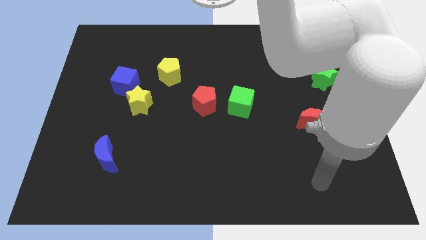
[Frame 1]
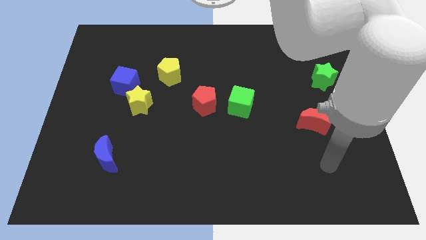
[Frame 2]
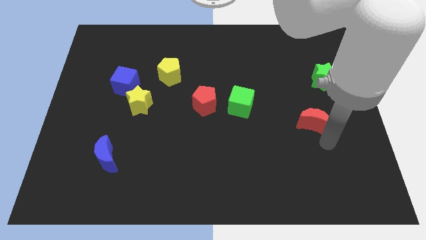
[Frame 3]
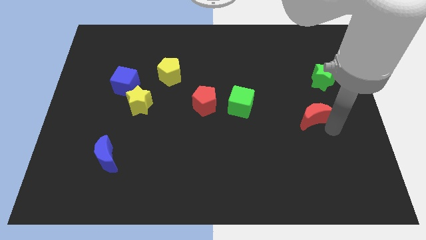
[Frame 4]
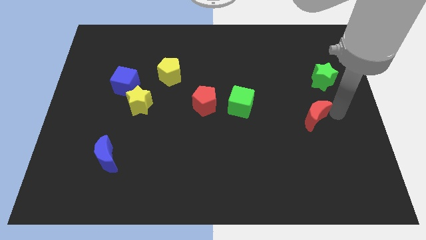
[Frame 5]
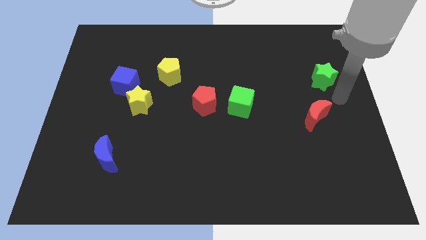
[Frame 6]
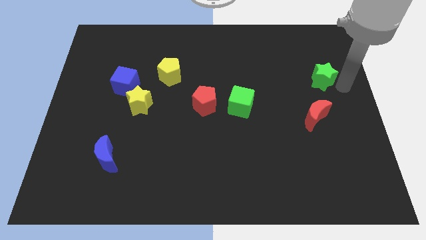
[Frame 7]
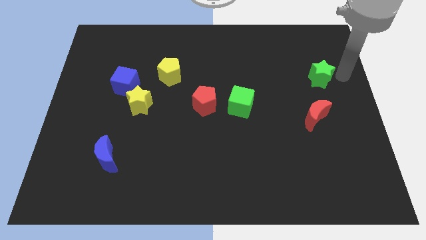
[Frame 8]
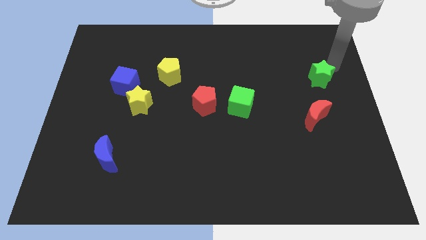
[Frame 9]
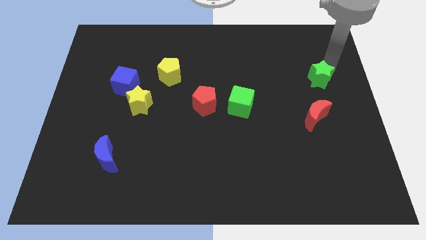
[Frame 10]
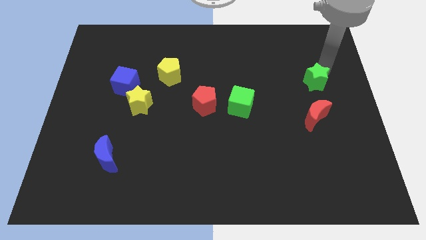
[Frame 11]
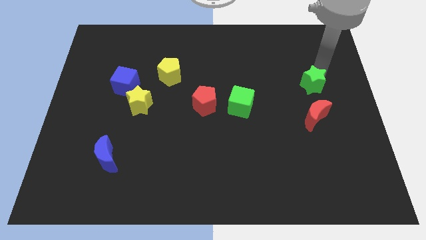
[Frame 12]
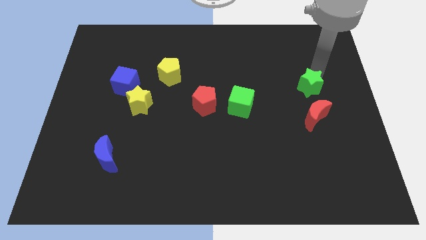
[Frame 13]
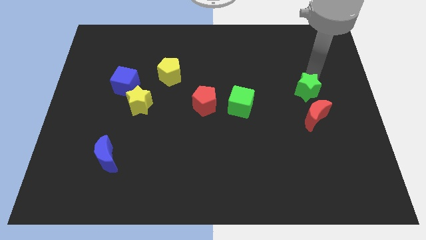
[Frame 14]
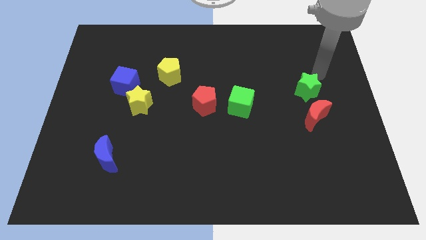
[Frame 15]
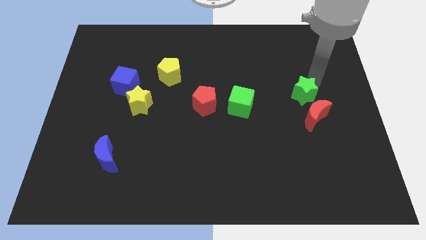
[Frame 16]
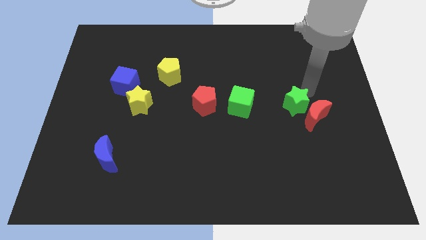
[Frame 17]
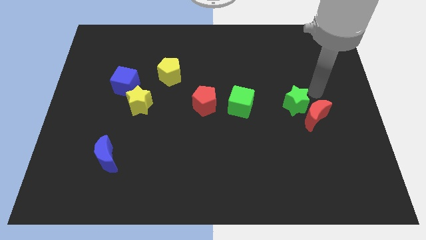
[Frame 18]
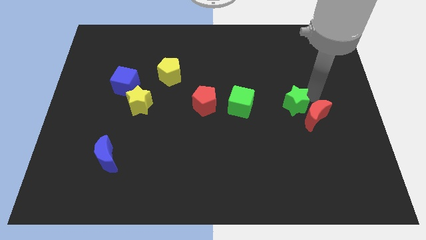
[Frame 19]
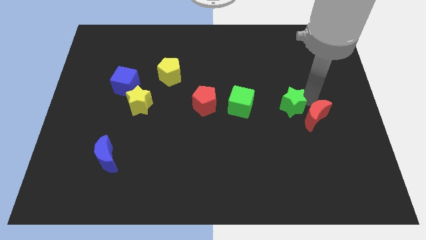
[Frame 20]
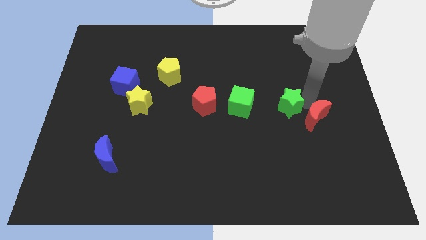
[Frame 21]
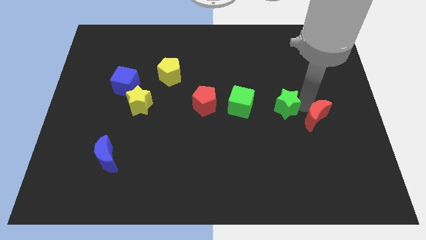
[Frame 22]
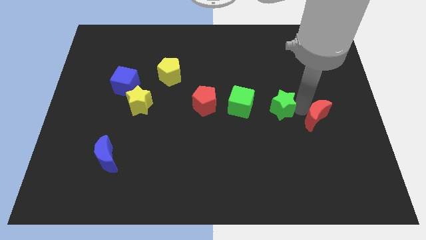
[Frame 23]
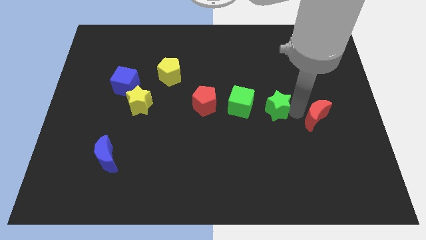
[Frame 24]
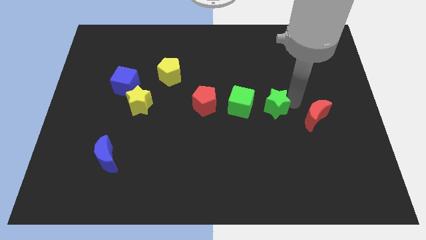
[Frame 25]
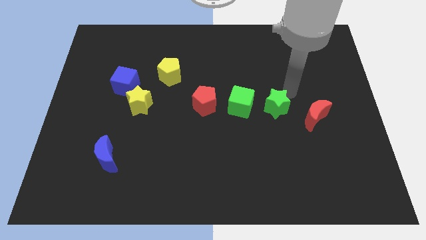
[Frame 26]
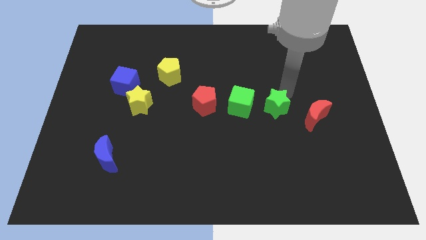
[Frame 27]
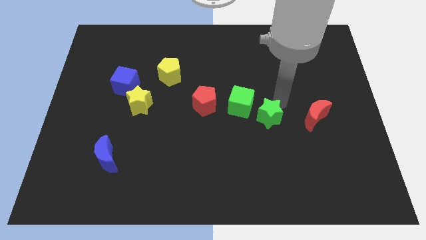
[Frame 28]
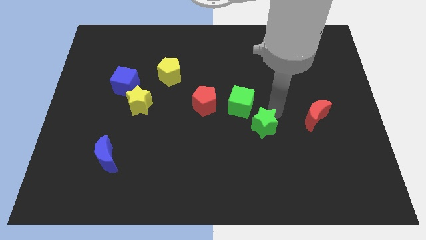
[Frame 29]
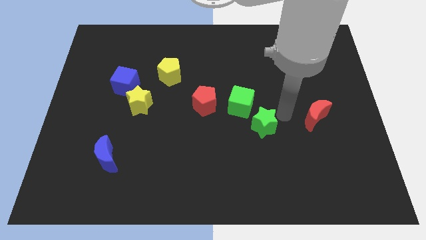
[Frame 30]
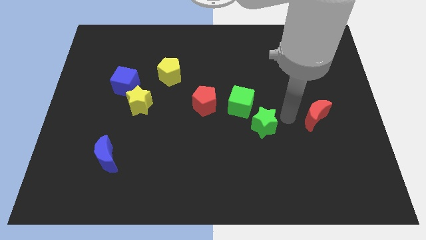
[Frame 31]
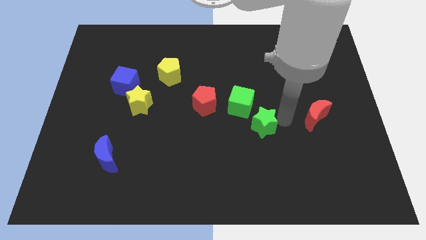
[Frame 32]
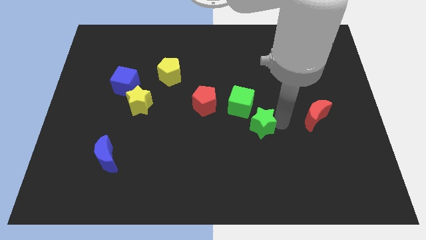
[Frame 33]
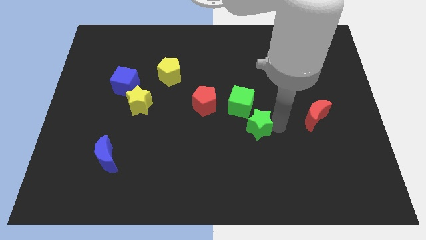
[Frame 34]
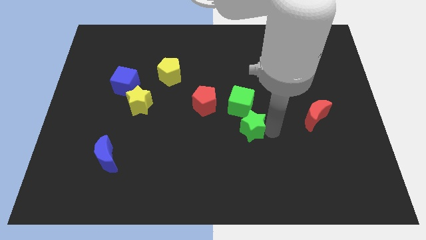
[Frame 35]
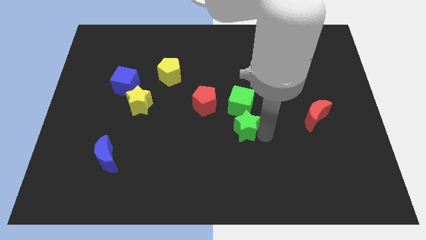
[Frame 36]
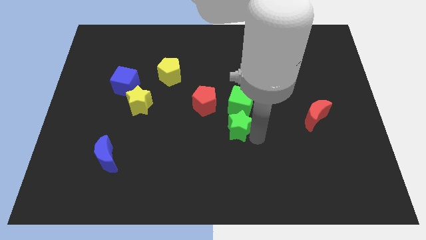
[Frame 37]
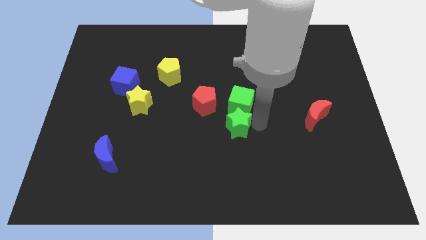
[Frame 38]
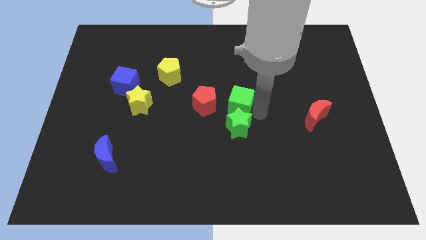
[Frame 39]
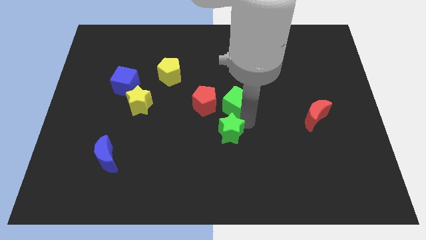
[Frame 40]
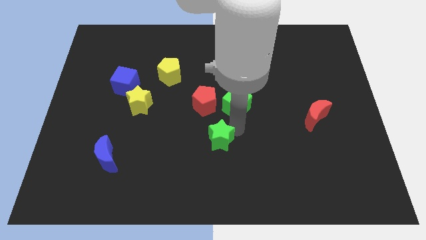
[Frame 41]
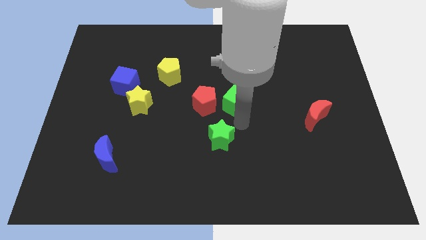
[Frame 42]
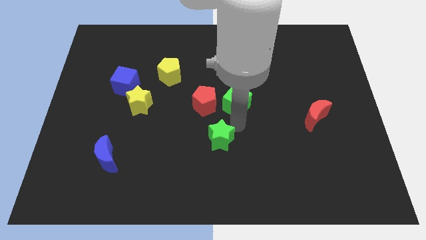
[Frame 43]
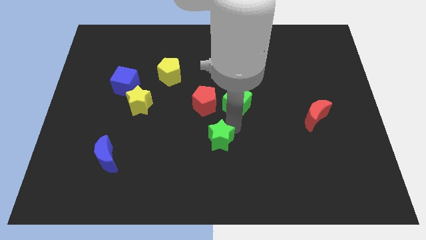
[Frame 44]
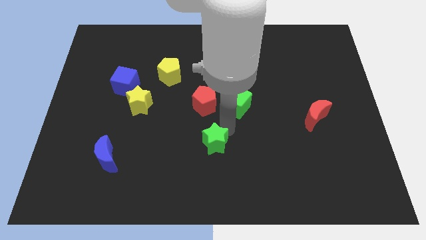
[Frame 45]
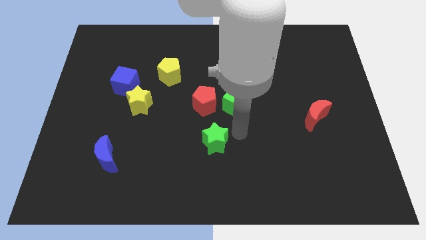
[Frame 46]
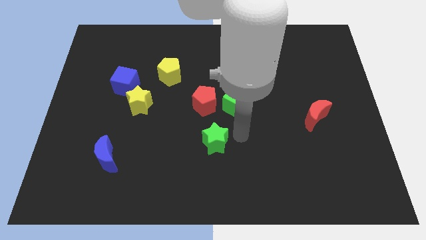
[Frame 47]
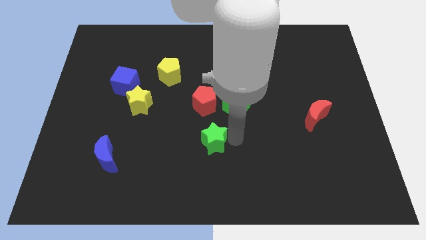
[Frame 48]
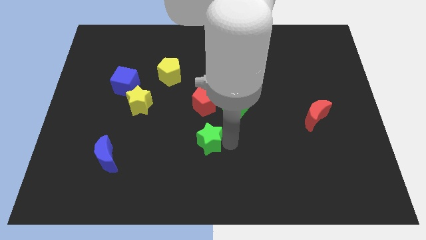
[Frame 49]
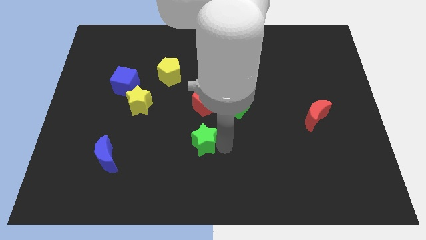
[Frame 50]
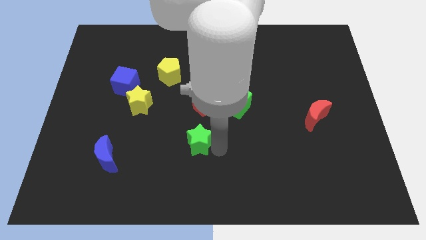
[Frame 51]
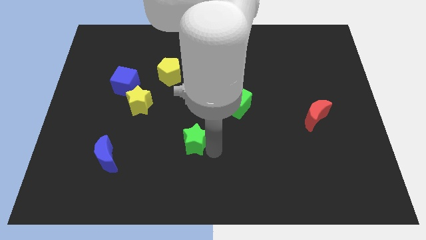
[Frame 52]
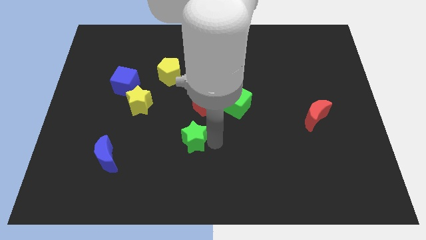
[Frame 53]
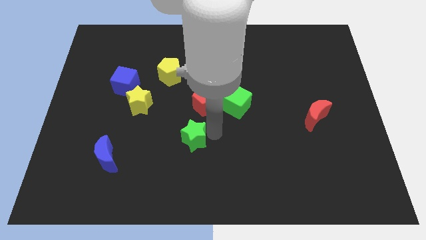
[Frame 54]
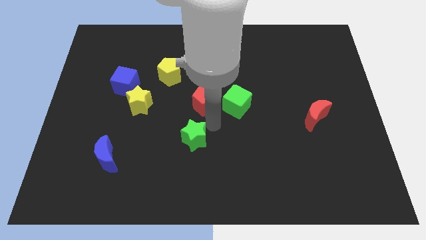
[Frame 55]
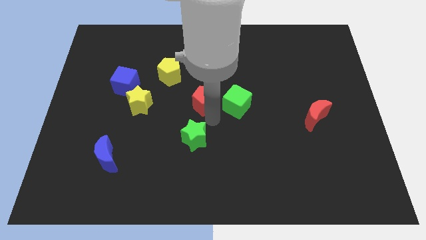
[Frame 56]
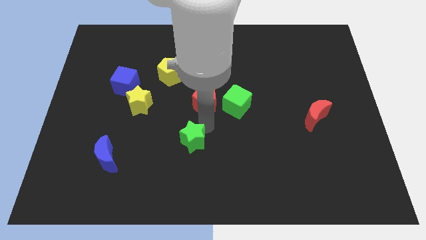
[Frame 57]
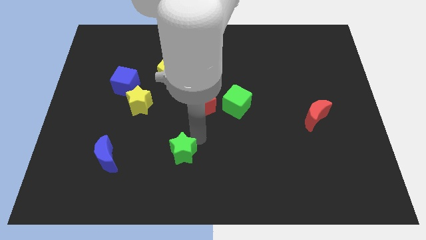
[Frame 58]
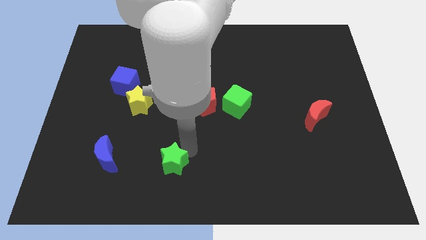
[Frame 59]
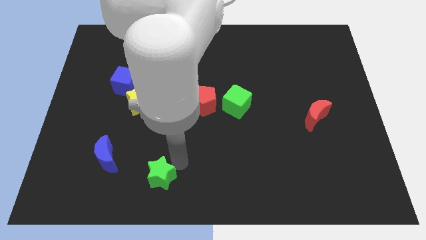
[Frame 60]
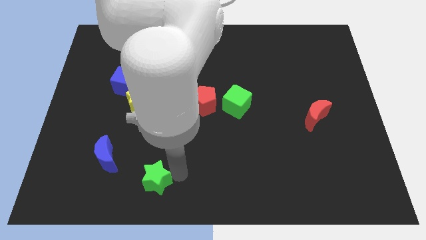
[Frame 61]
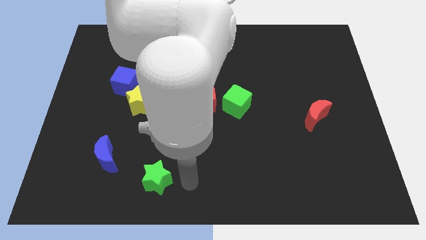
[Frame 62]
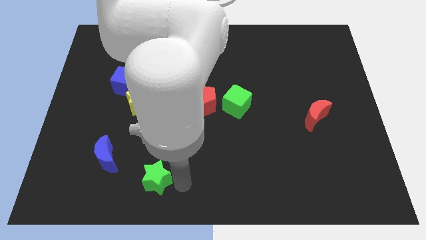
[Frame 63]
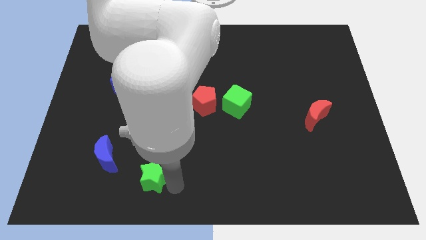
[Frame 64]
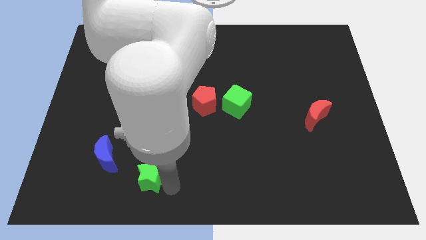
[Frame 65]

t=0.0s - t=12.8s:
put the green star to the bottom right of the blue moon

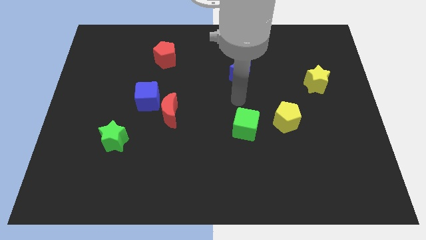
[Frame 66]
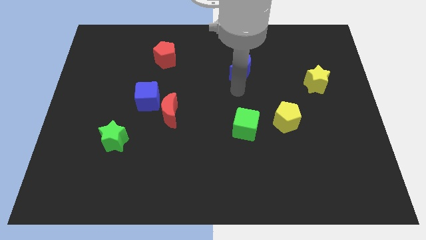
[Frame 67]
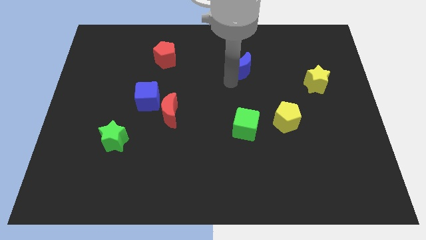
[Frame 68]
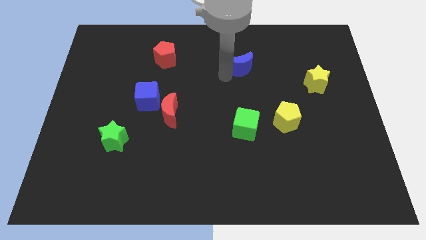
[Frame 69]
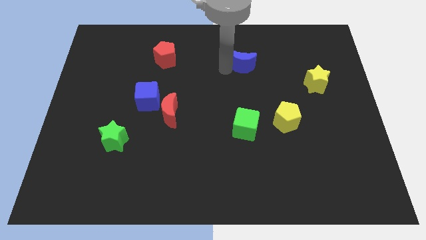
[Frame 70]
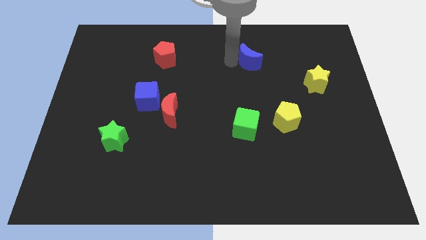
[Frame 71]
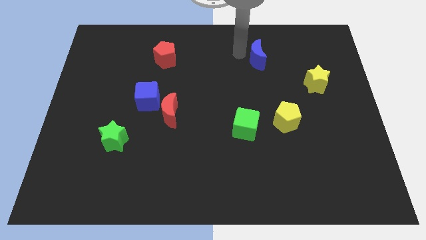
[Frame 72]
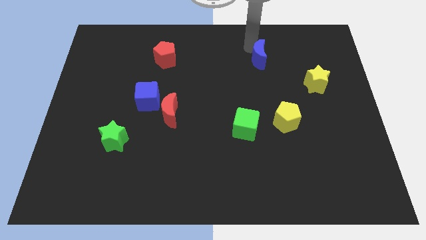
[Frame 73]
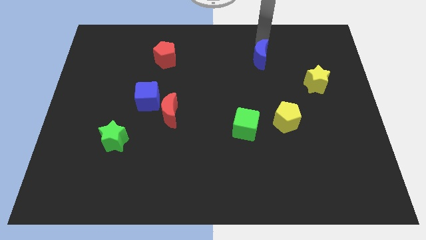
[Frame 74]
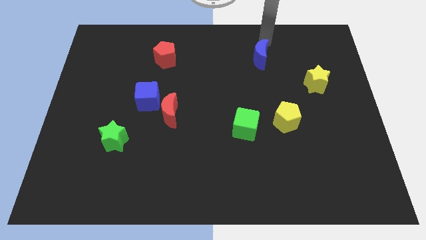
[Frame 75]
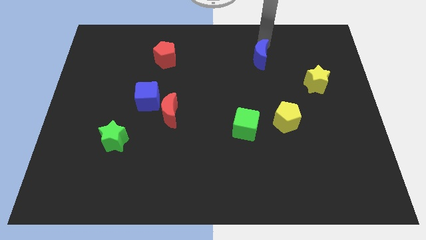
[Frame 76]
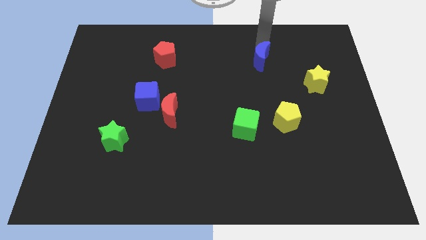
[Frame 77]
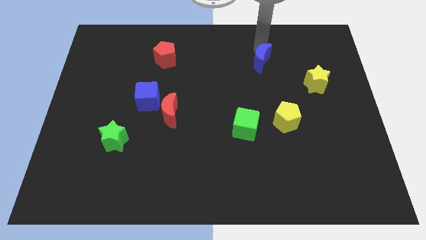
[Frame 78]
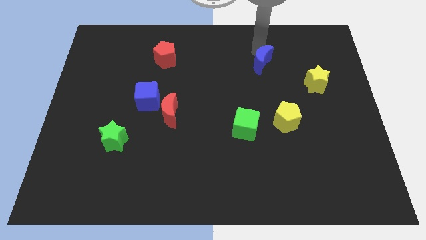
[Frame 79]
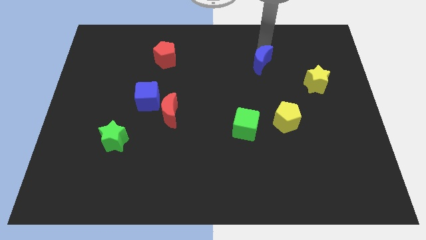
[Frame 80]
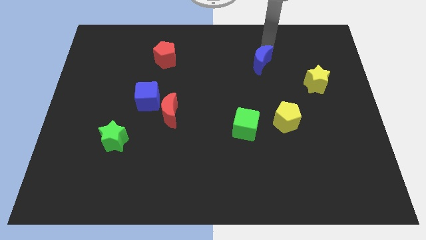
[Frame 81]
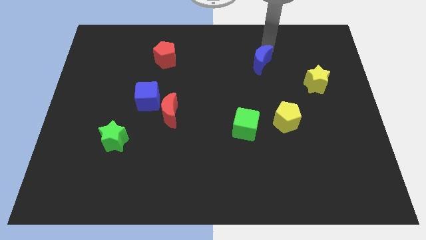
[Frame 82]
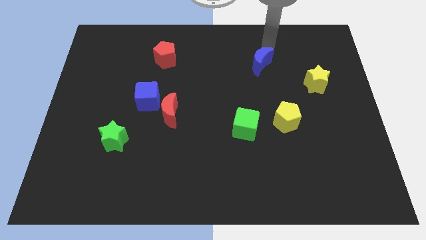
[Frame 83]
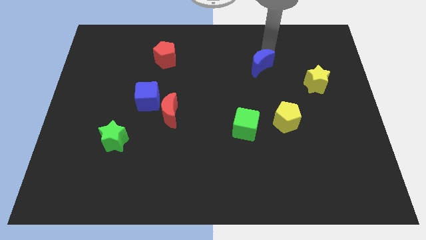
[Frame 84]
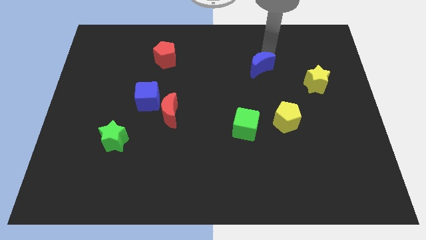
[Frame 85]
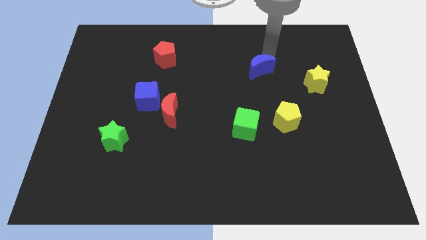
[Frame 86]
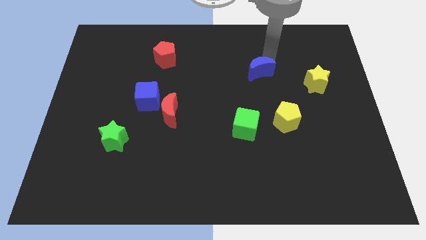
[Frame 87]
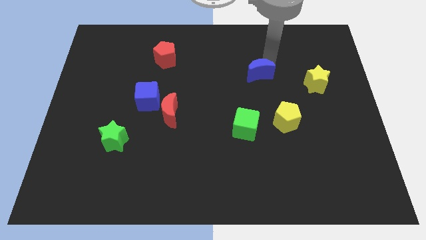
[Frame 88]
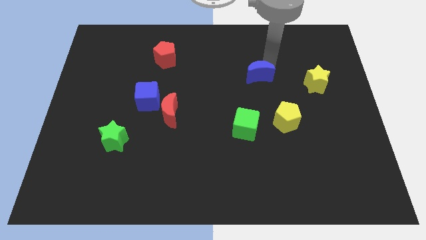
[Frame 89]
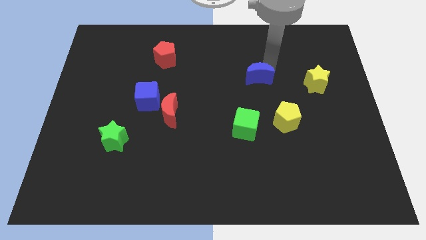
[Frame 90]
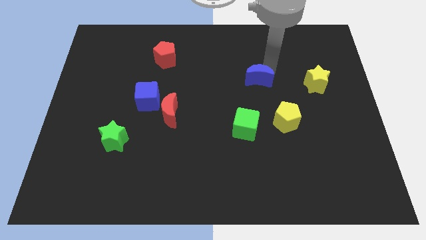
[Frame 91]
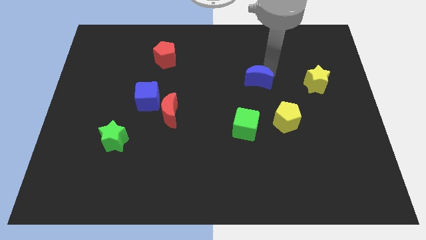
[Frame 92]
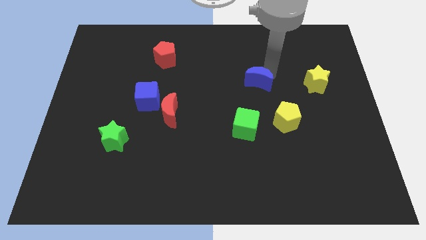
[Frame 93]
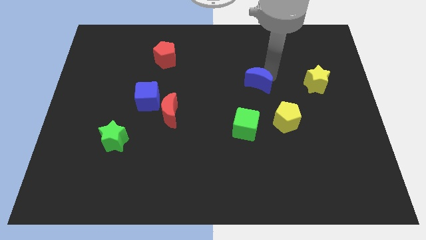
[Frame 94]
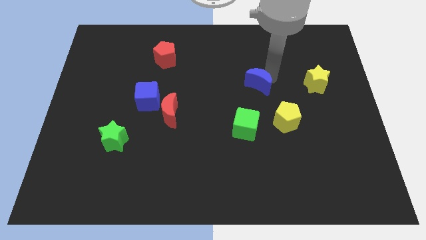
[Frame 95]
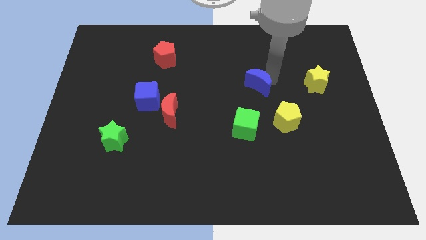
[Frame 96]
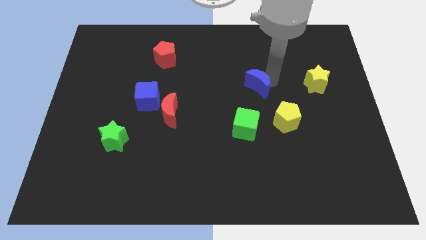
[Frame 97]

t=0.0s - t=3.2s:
slide the blue moon diagonally up and to the left of the yellow pentagon
